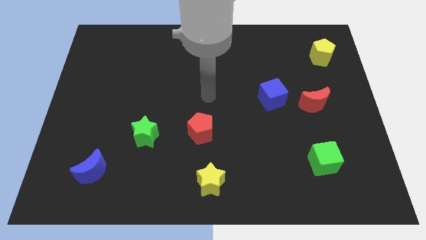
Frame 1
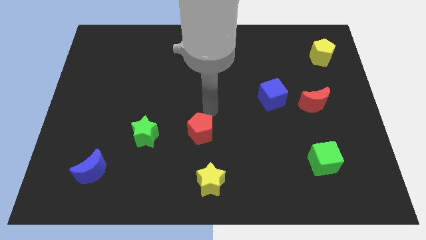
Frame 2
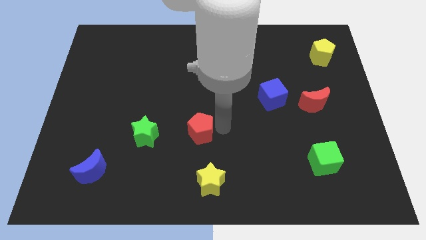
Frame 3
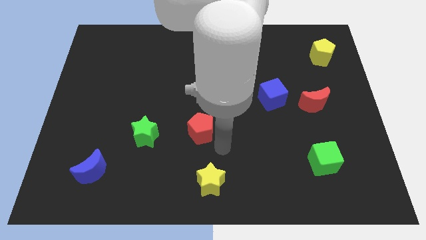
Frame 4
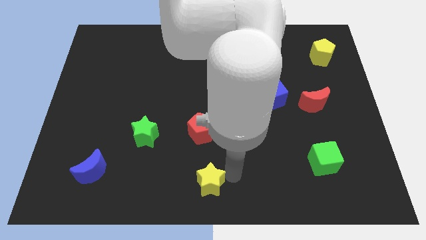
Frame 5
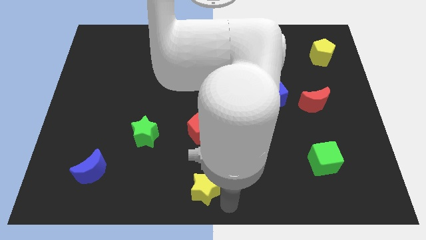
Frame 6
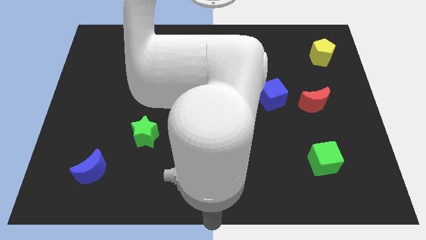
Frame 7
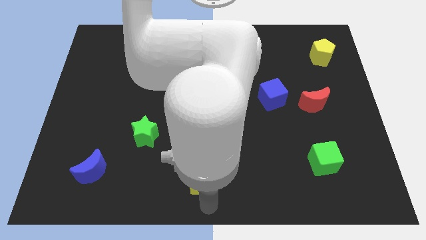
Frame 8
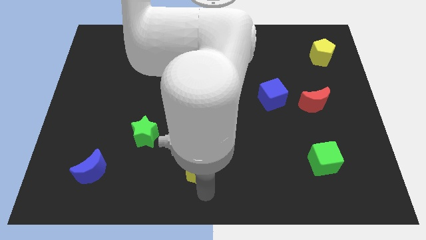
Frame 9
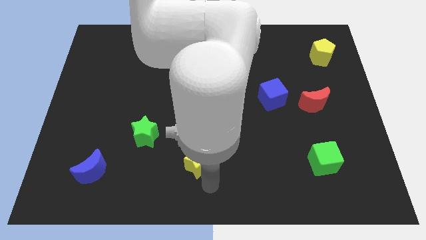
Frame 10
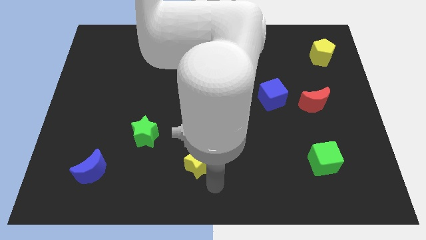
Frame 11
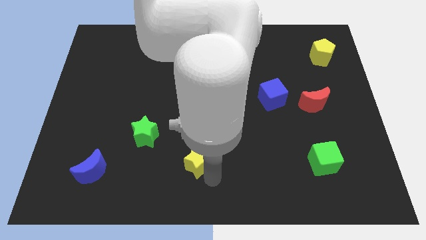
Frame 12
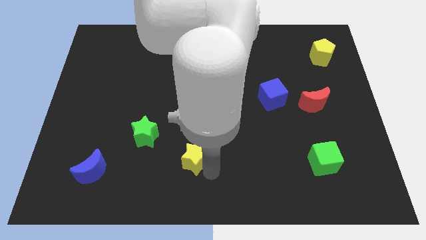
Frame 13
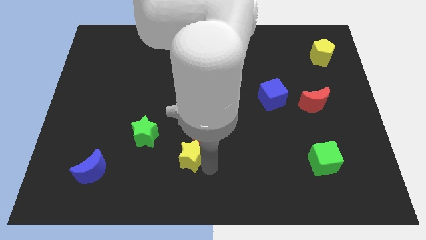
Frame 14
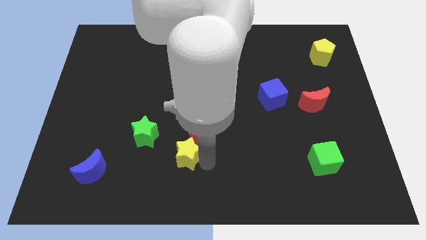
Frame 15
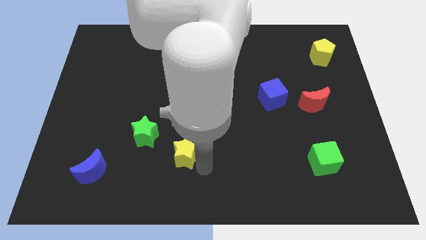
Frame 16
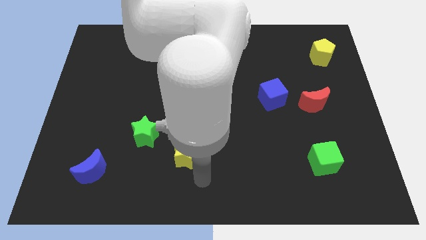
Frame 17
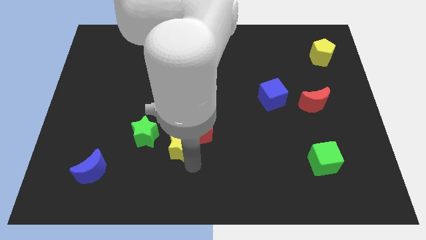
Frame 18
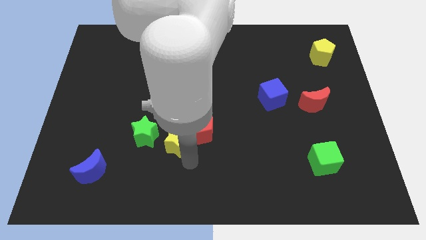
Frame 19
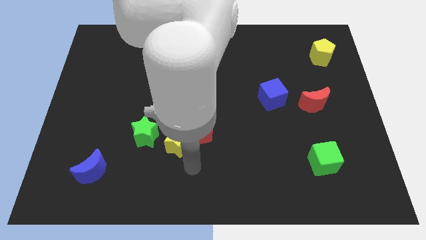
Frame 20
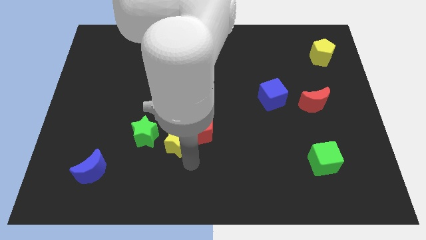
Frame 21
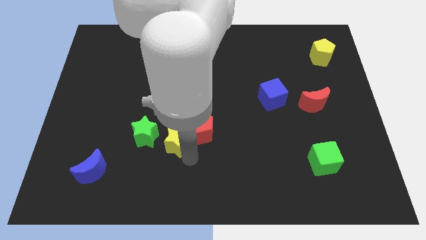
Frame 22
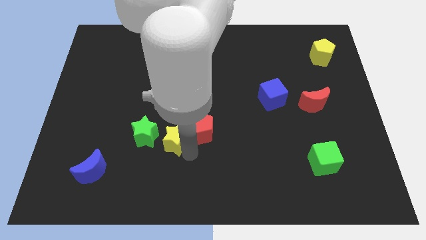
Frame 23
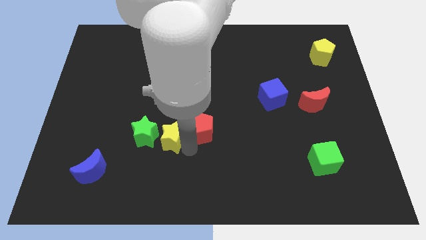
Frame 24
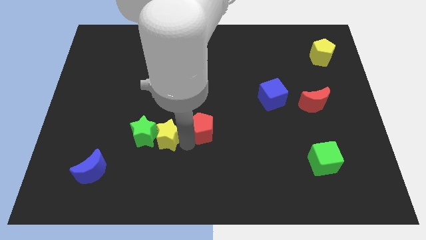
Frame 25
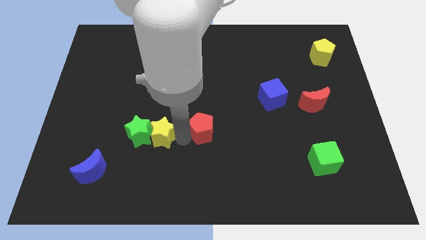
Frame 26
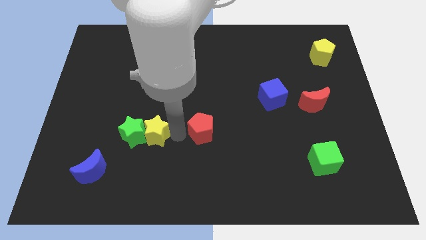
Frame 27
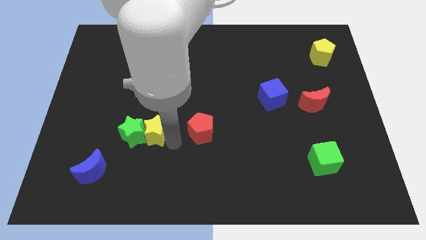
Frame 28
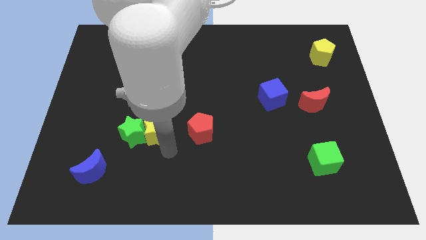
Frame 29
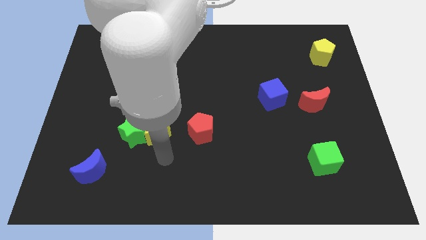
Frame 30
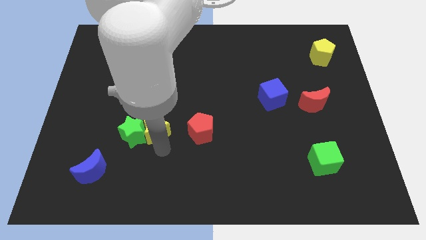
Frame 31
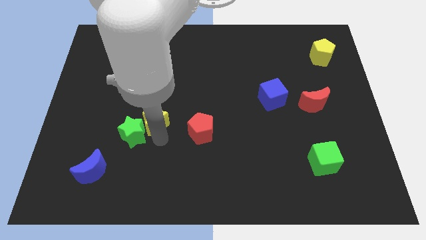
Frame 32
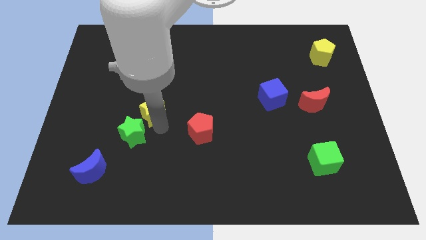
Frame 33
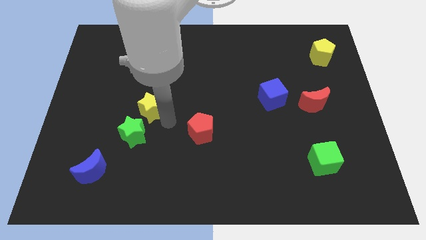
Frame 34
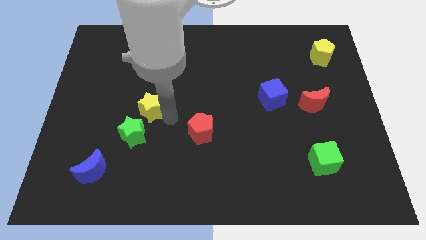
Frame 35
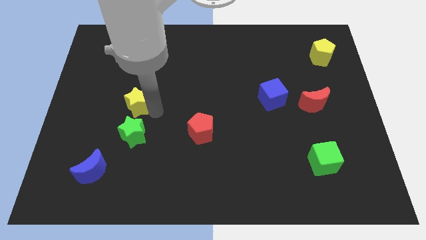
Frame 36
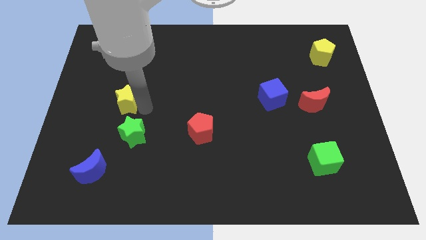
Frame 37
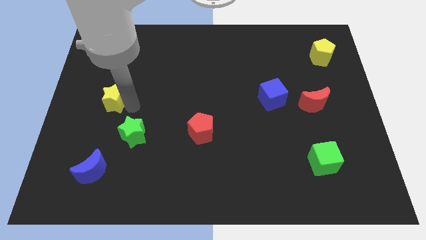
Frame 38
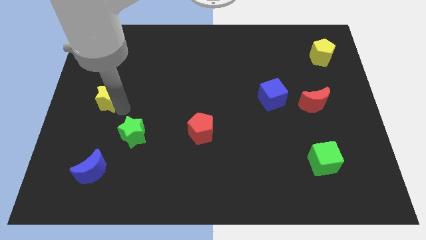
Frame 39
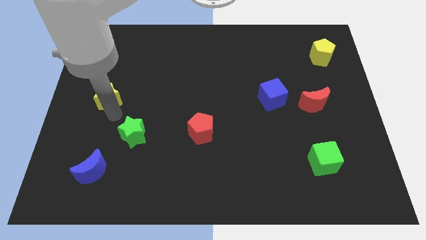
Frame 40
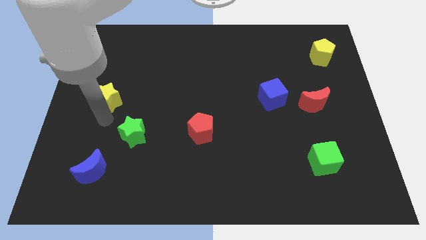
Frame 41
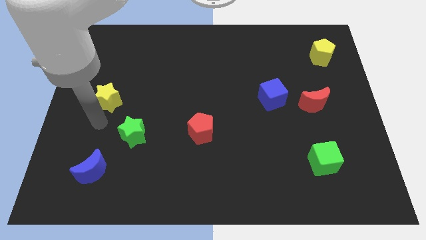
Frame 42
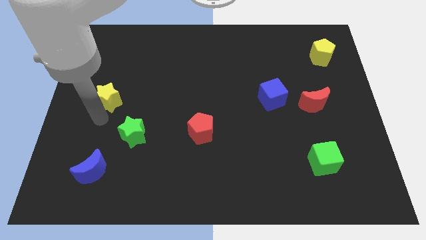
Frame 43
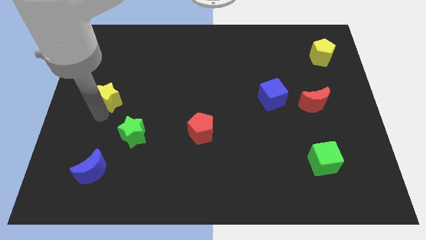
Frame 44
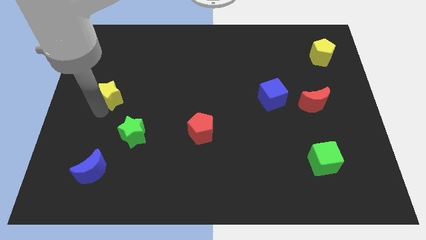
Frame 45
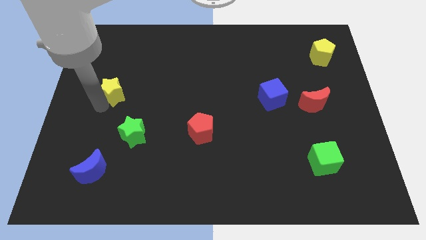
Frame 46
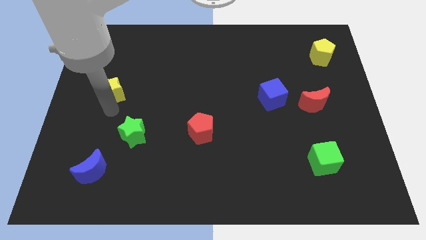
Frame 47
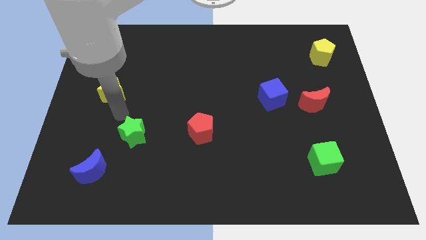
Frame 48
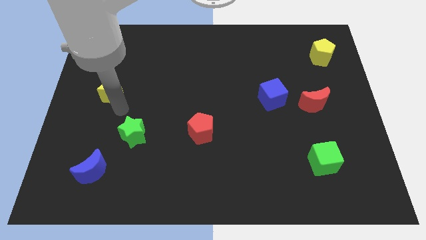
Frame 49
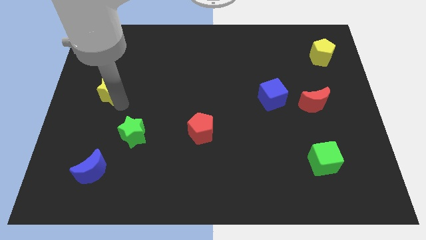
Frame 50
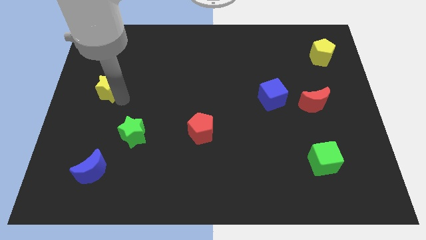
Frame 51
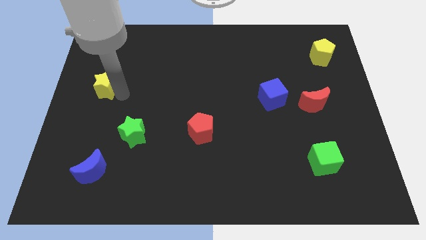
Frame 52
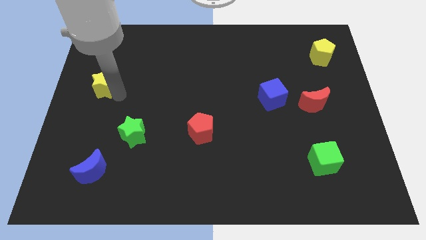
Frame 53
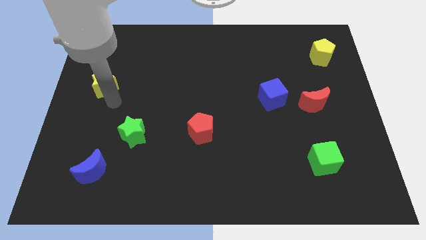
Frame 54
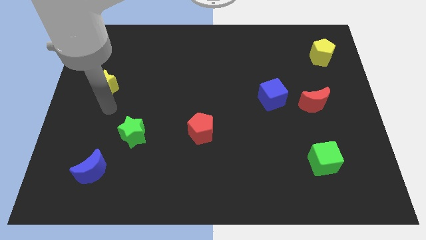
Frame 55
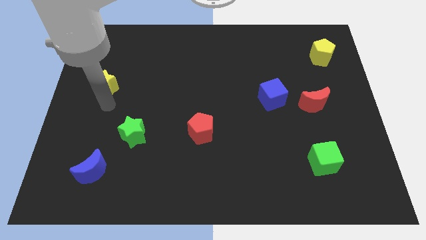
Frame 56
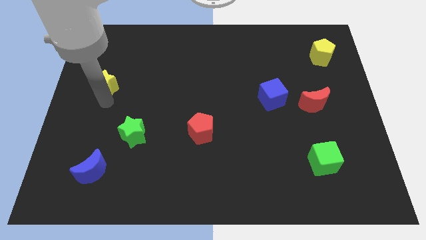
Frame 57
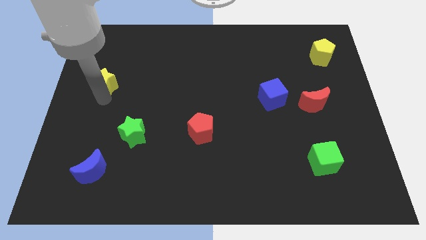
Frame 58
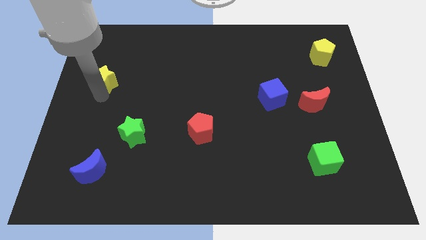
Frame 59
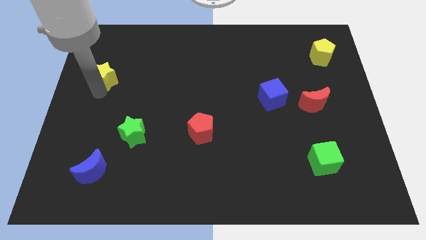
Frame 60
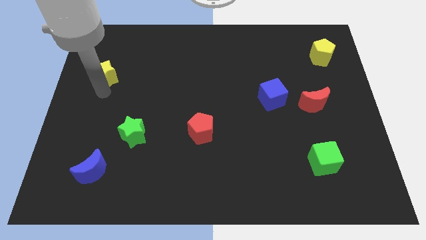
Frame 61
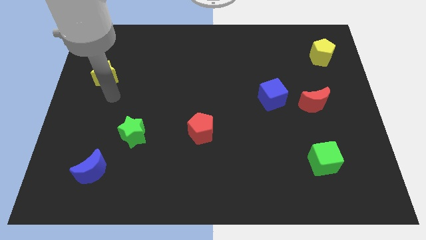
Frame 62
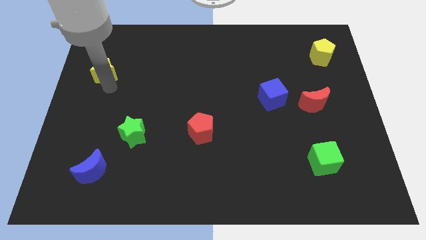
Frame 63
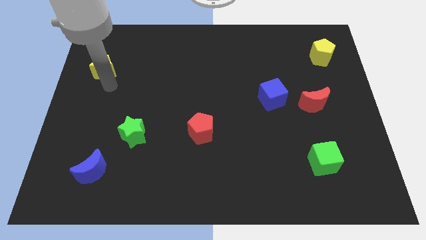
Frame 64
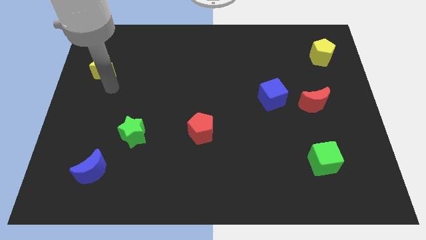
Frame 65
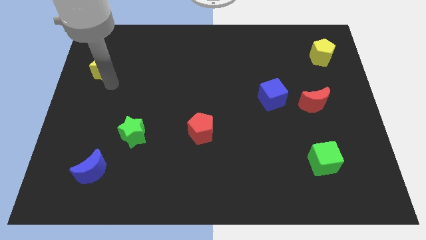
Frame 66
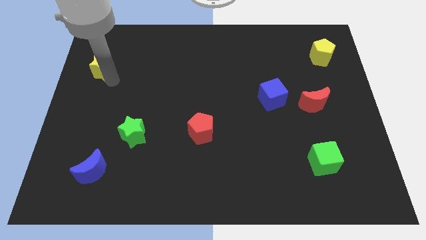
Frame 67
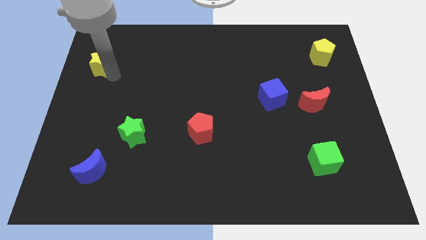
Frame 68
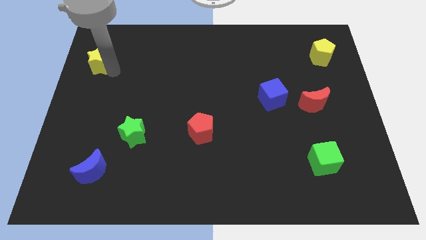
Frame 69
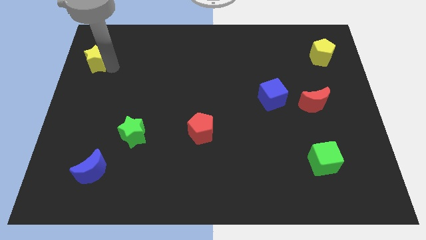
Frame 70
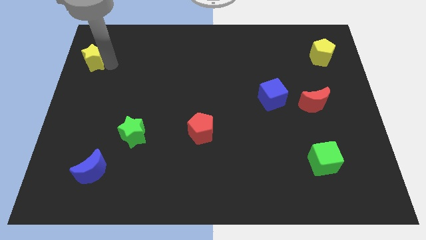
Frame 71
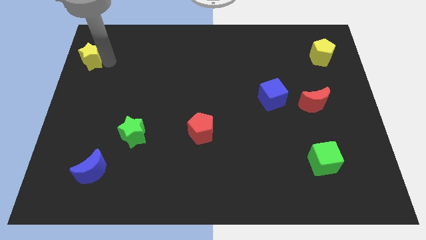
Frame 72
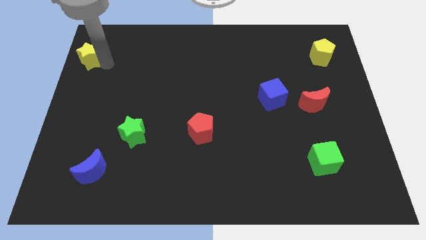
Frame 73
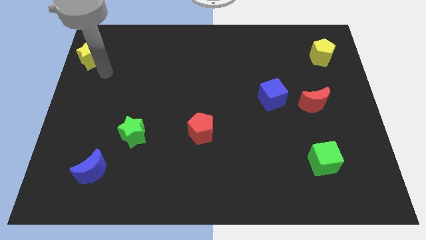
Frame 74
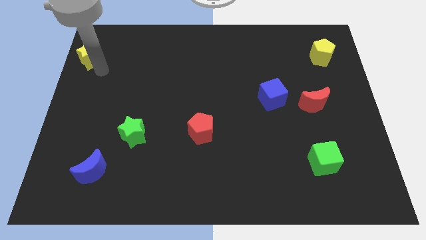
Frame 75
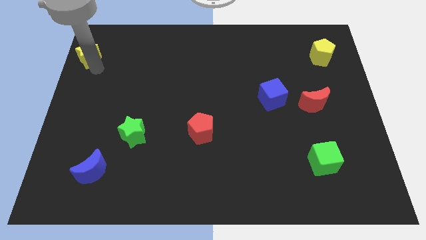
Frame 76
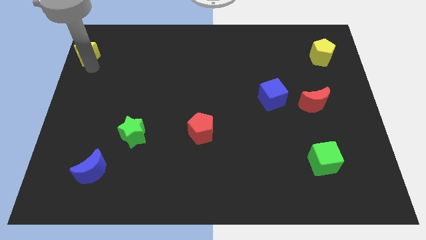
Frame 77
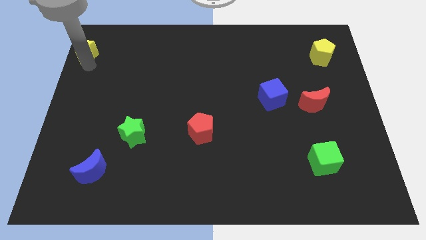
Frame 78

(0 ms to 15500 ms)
put the yellow star to the top left of the board
